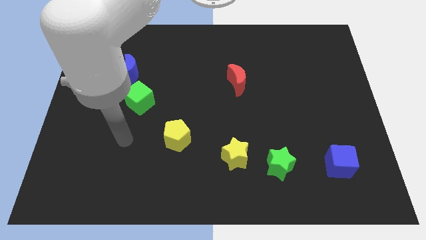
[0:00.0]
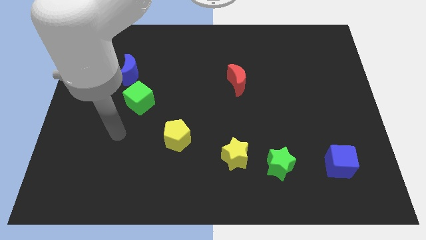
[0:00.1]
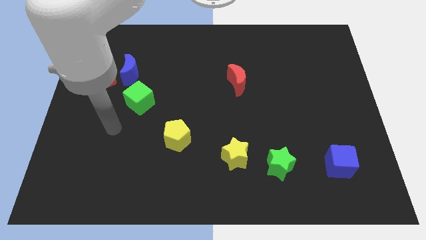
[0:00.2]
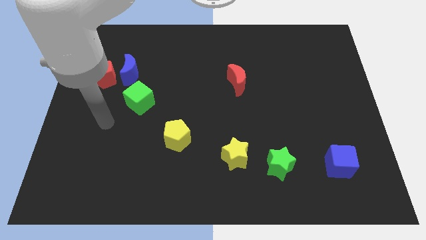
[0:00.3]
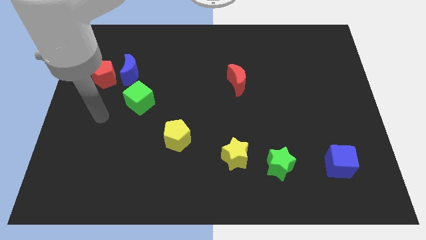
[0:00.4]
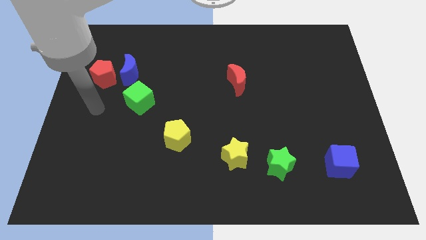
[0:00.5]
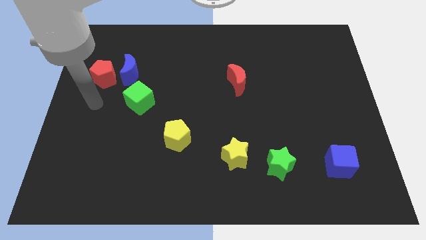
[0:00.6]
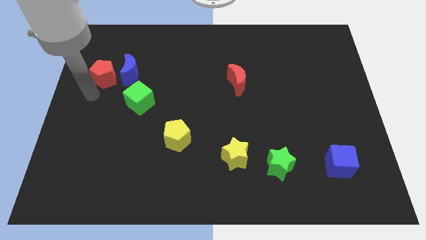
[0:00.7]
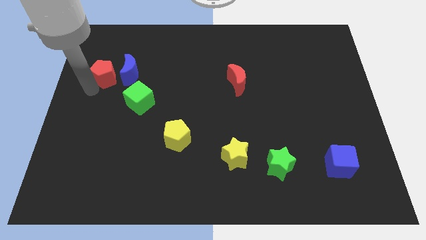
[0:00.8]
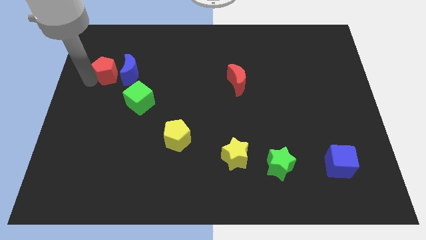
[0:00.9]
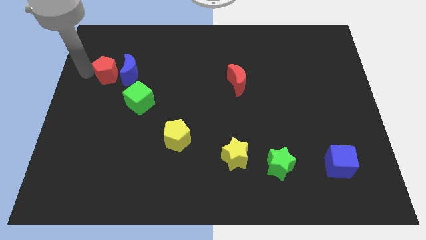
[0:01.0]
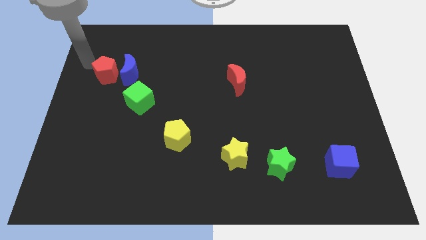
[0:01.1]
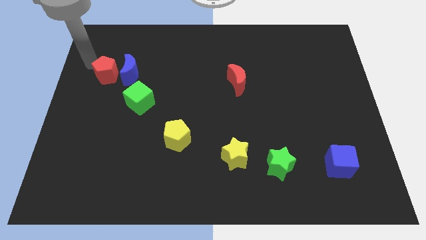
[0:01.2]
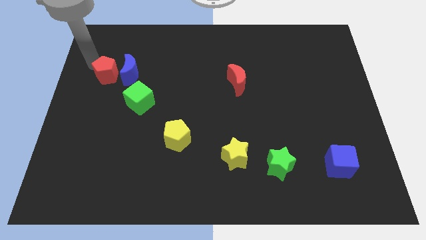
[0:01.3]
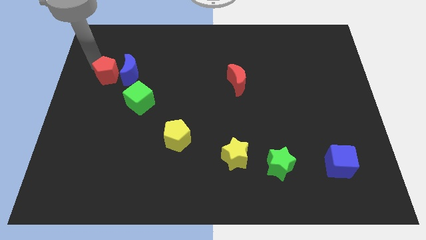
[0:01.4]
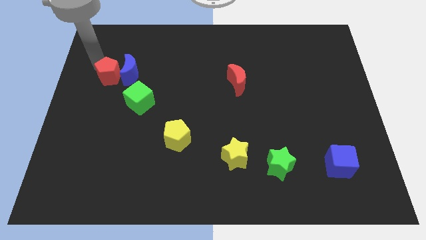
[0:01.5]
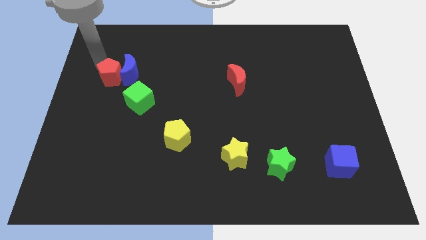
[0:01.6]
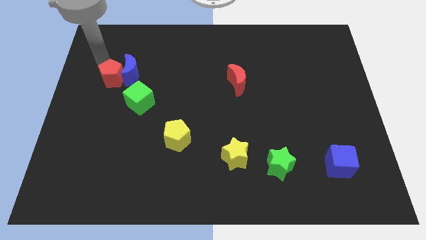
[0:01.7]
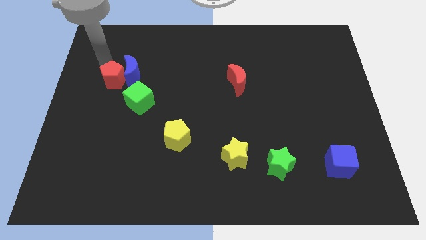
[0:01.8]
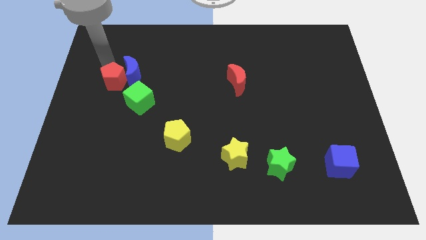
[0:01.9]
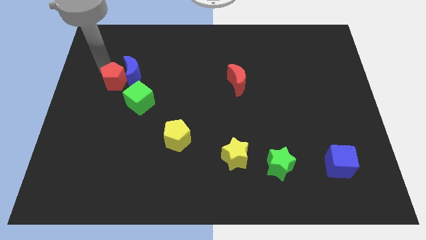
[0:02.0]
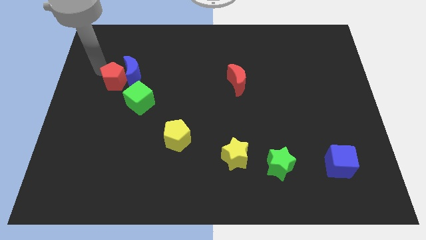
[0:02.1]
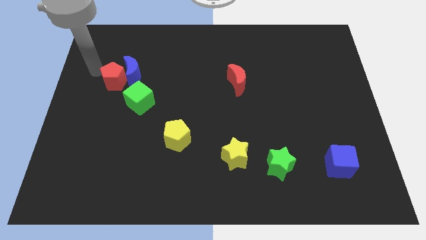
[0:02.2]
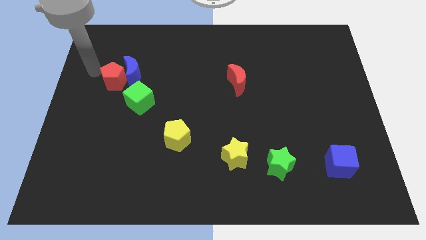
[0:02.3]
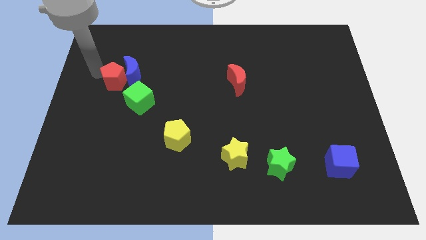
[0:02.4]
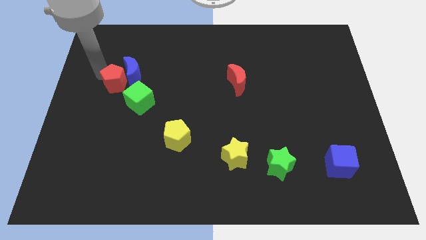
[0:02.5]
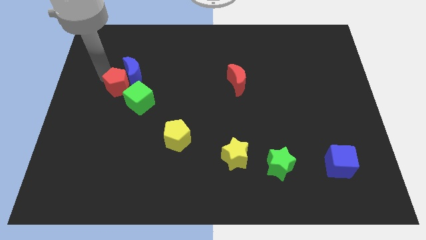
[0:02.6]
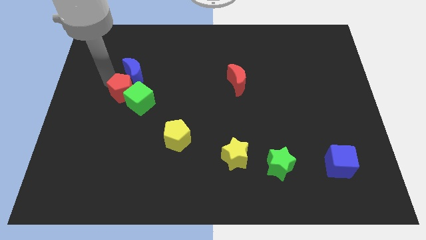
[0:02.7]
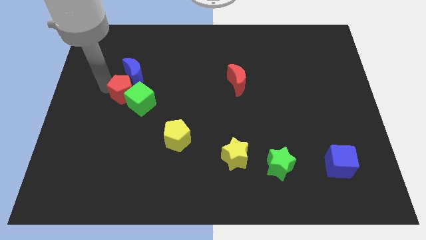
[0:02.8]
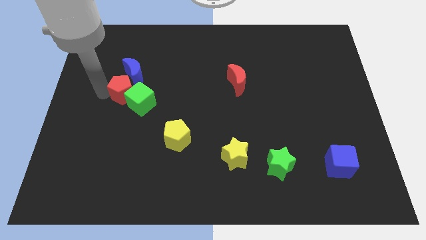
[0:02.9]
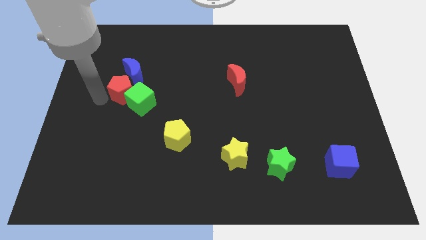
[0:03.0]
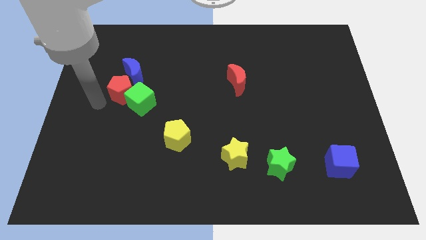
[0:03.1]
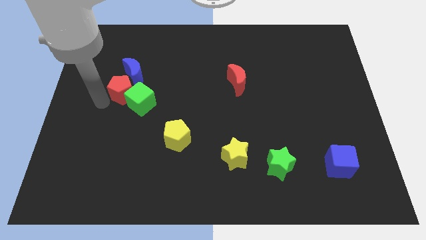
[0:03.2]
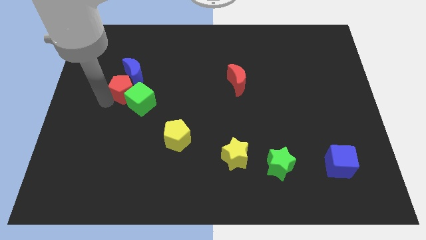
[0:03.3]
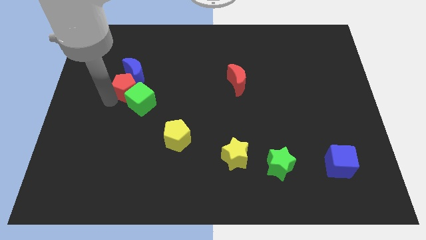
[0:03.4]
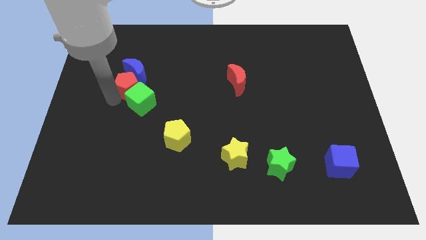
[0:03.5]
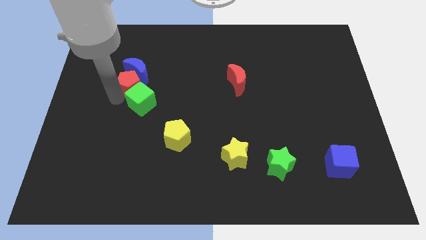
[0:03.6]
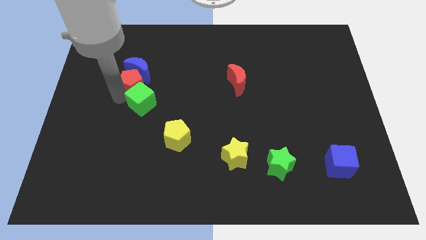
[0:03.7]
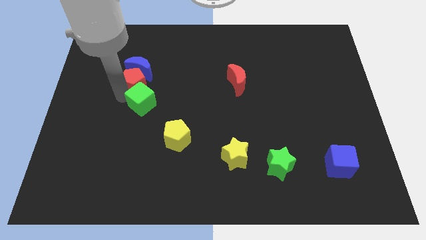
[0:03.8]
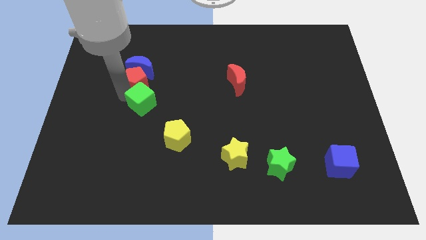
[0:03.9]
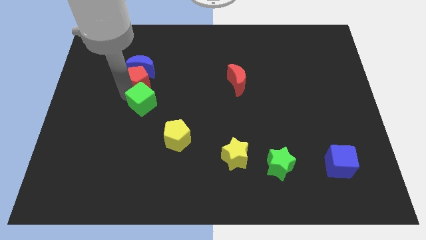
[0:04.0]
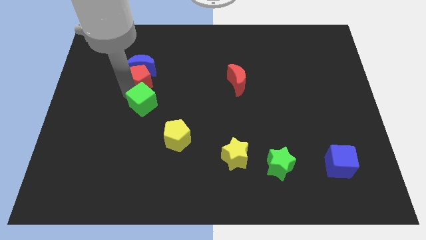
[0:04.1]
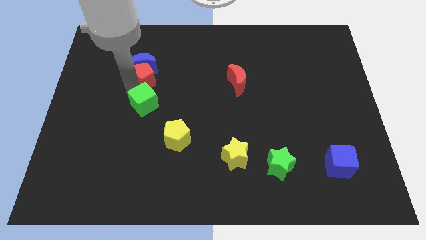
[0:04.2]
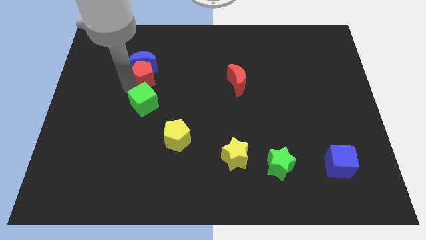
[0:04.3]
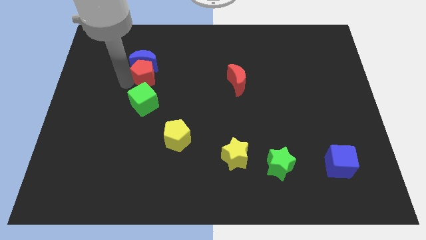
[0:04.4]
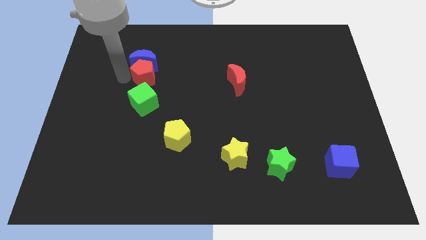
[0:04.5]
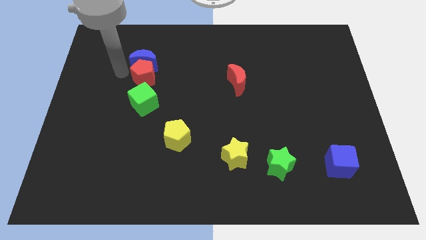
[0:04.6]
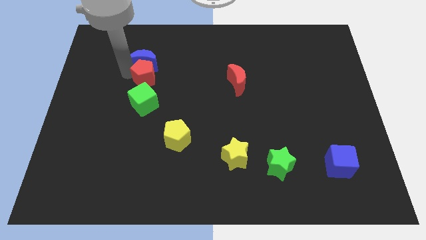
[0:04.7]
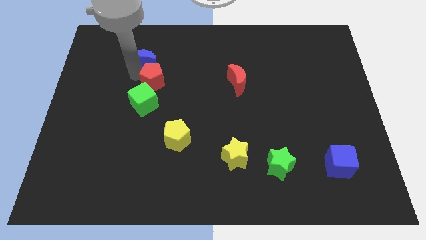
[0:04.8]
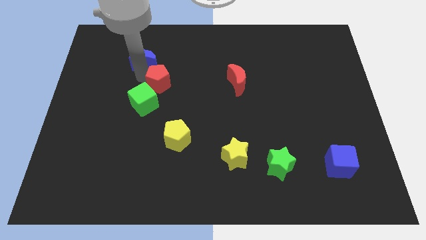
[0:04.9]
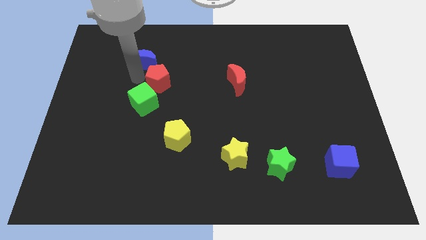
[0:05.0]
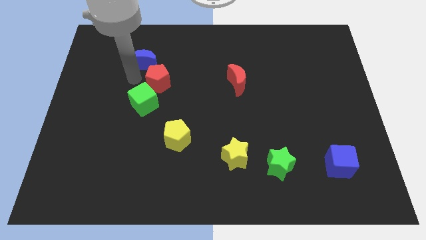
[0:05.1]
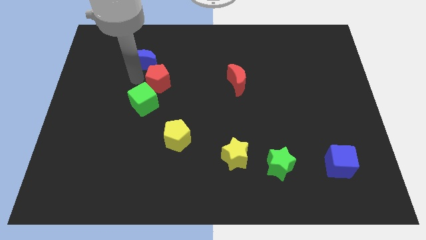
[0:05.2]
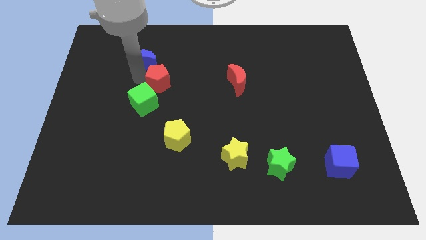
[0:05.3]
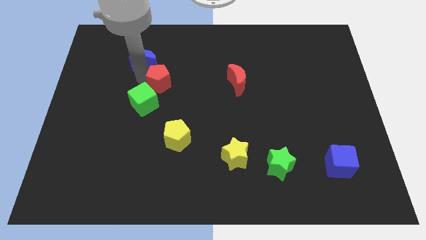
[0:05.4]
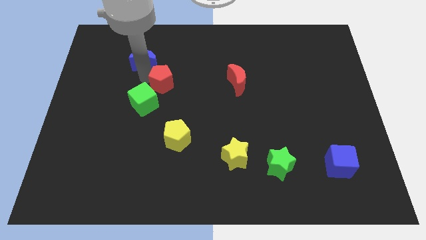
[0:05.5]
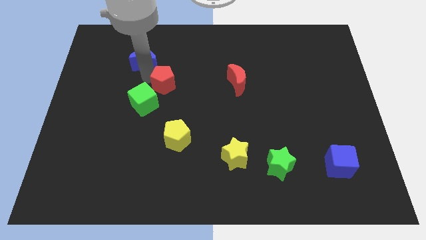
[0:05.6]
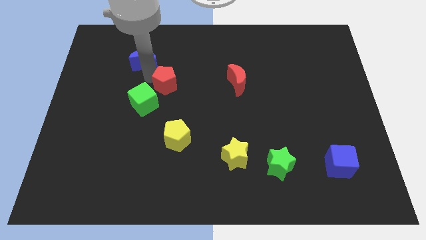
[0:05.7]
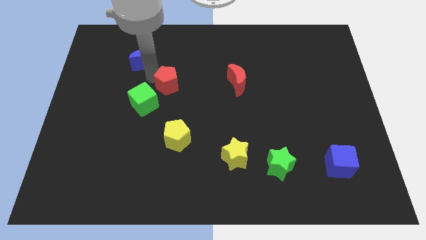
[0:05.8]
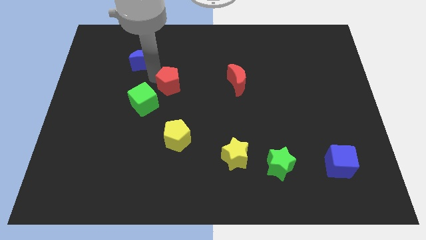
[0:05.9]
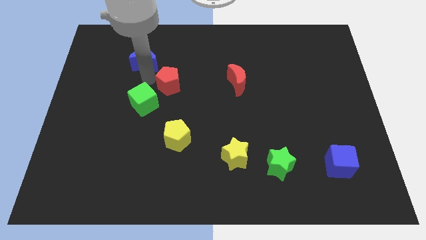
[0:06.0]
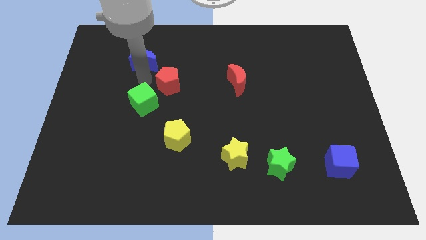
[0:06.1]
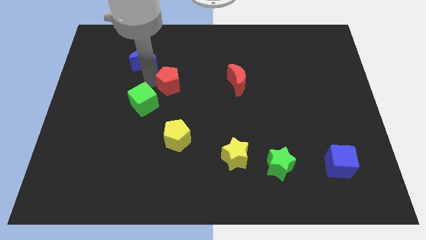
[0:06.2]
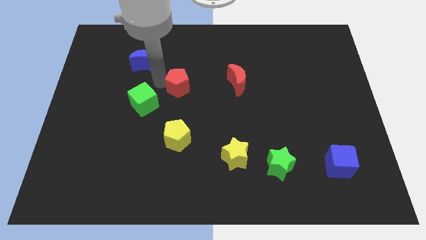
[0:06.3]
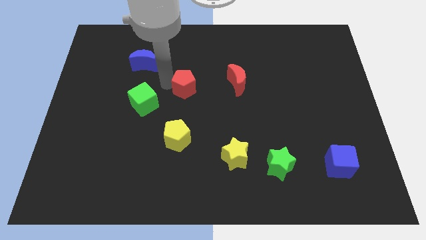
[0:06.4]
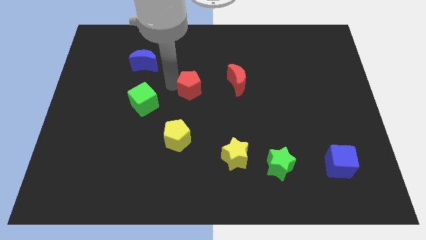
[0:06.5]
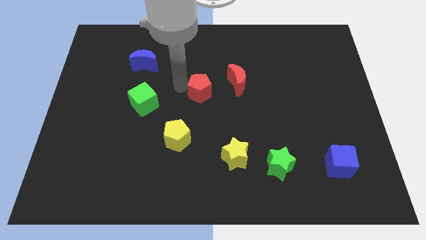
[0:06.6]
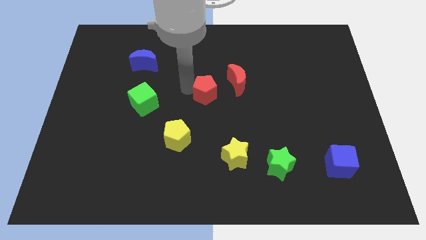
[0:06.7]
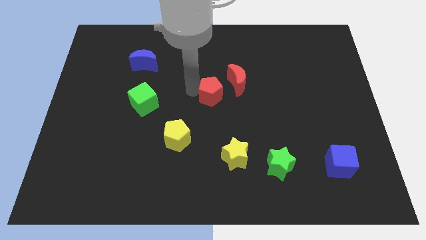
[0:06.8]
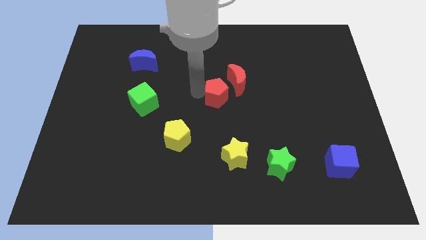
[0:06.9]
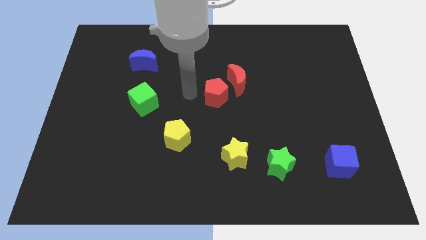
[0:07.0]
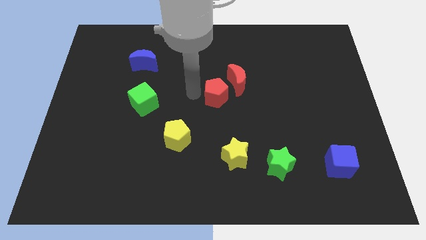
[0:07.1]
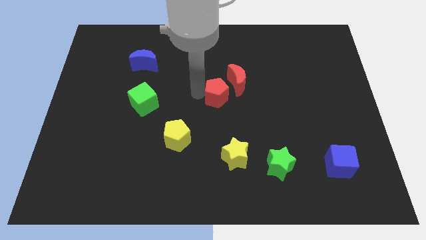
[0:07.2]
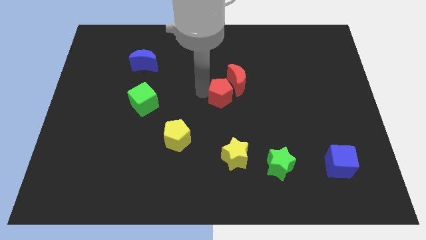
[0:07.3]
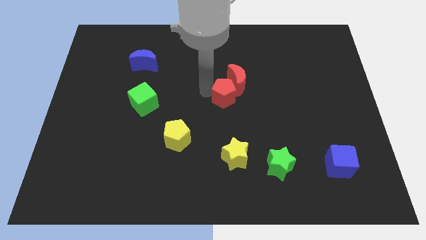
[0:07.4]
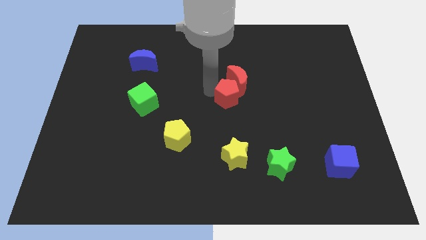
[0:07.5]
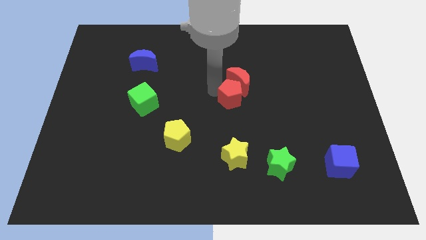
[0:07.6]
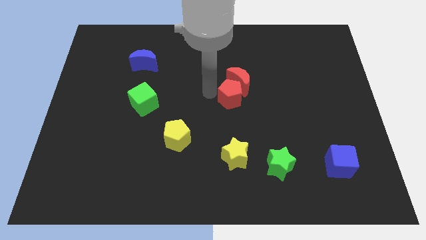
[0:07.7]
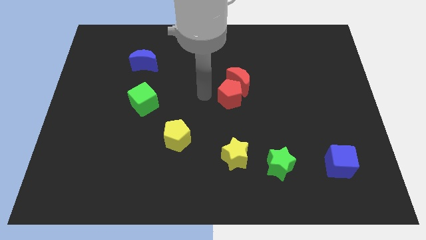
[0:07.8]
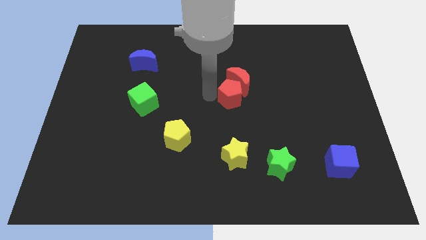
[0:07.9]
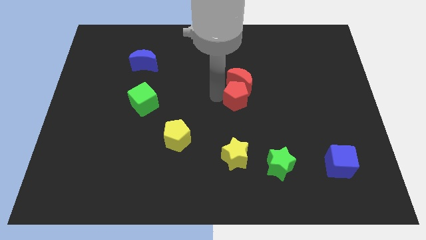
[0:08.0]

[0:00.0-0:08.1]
move the red pentagon to the bottom right of the red moon
